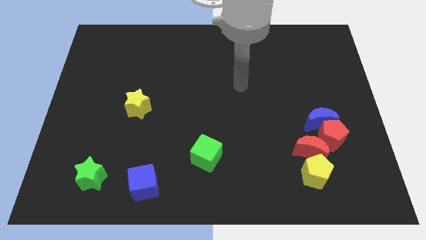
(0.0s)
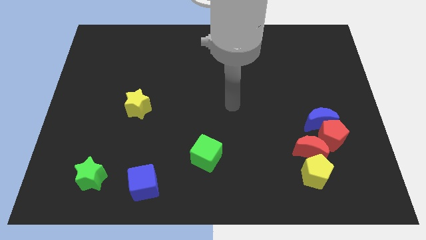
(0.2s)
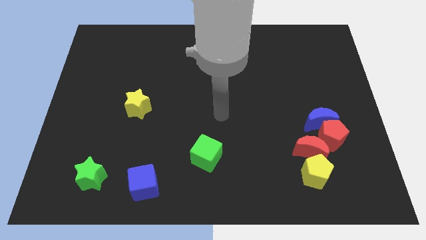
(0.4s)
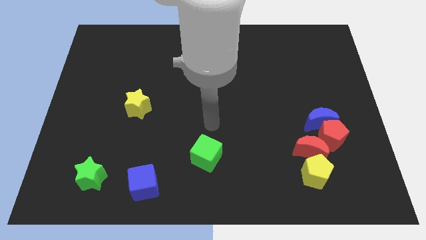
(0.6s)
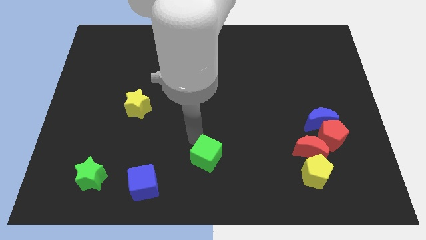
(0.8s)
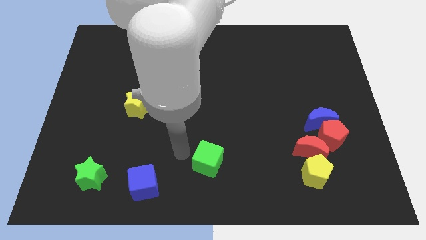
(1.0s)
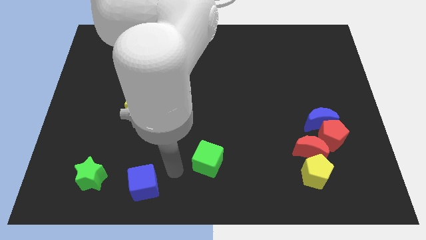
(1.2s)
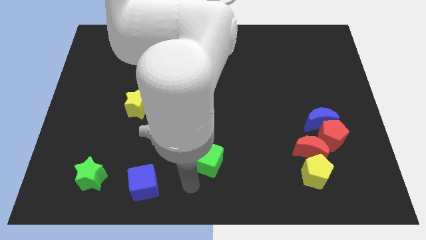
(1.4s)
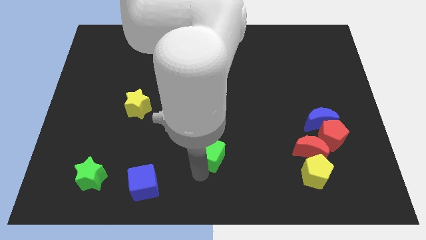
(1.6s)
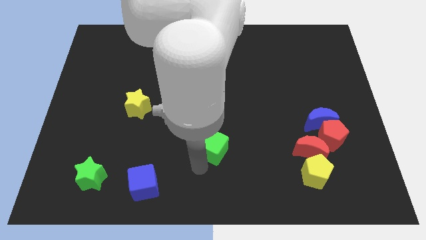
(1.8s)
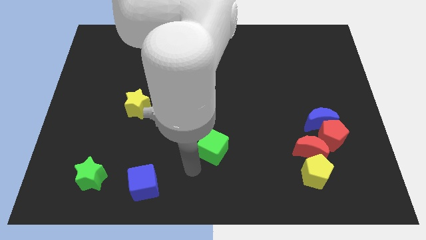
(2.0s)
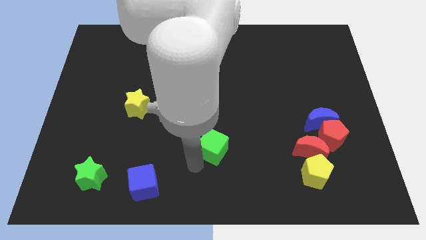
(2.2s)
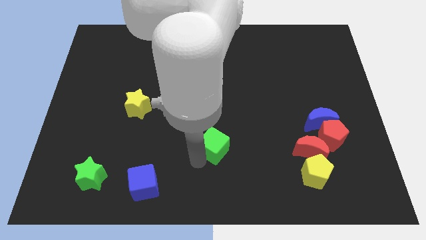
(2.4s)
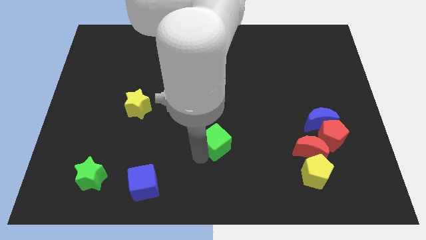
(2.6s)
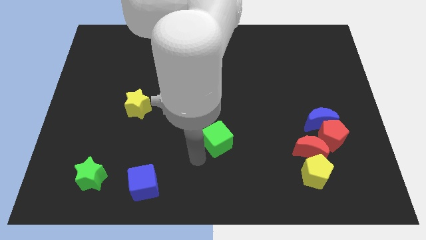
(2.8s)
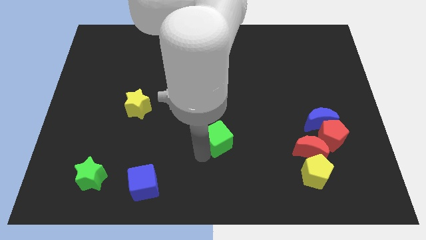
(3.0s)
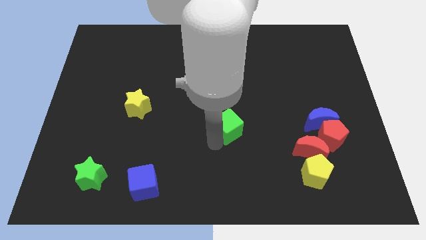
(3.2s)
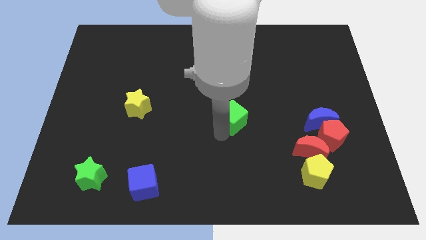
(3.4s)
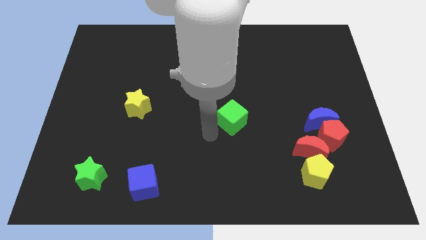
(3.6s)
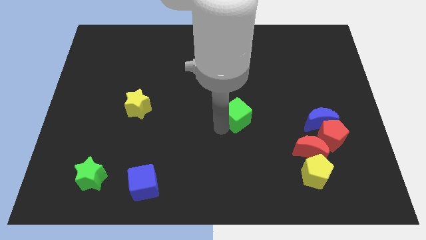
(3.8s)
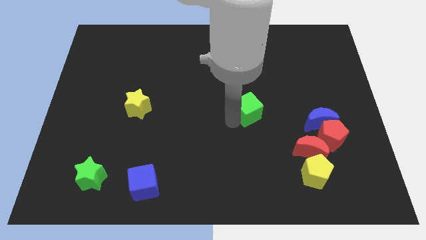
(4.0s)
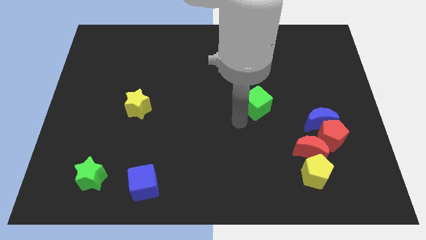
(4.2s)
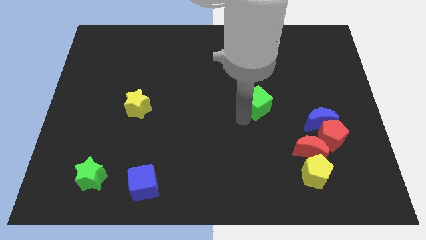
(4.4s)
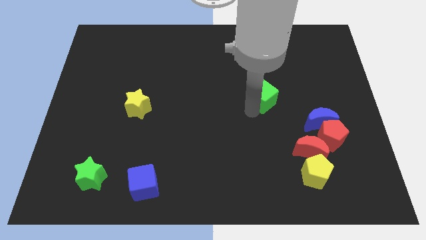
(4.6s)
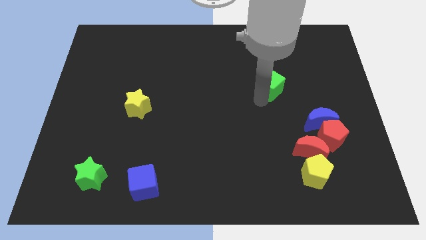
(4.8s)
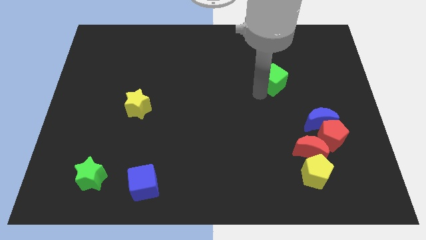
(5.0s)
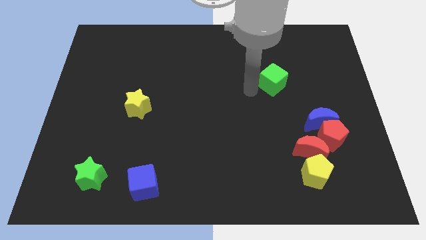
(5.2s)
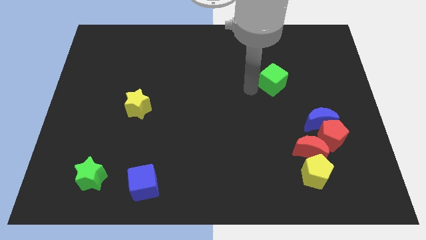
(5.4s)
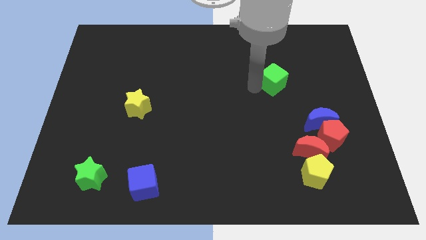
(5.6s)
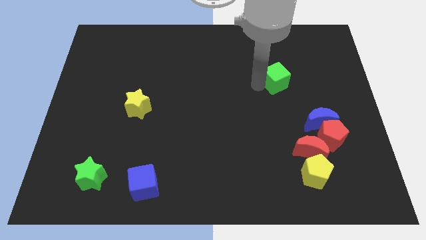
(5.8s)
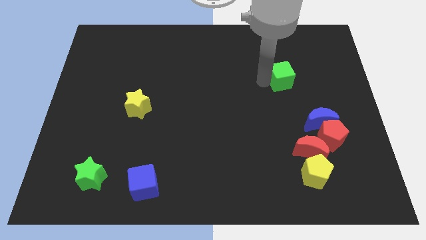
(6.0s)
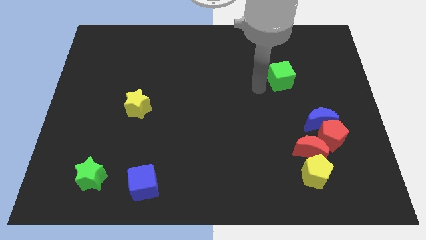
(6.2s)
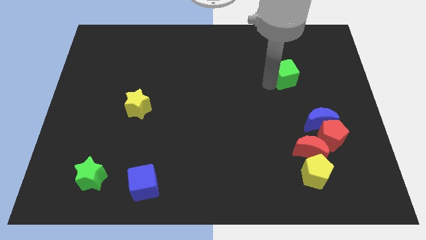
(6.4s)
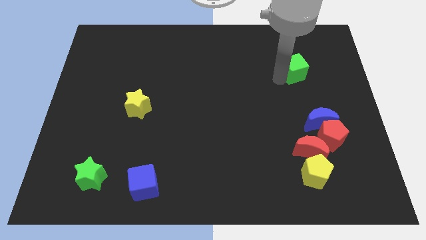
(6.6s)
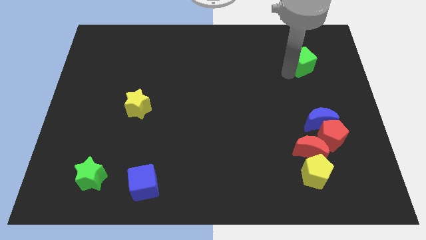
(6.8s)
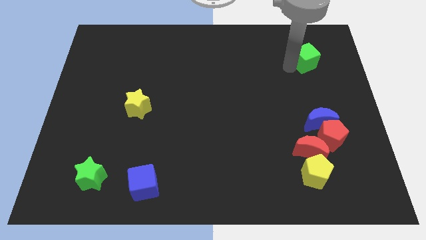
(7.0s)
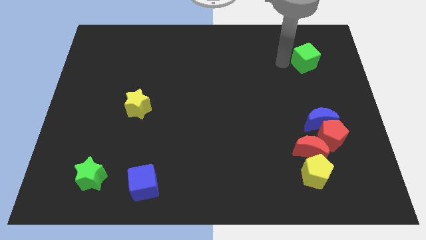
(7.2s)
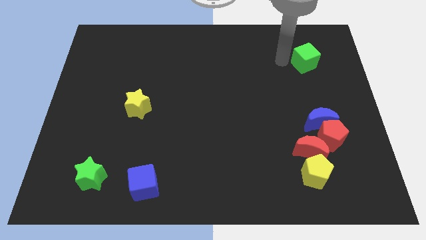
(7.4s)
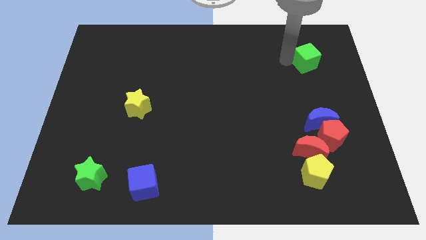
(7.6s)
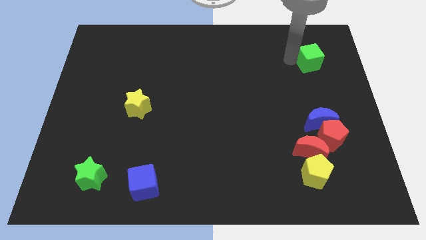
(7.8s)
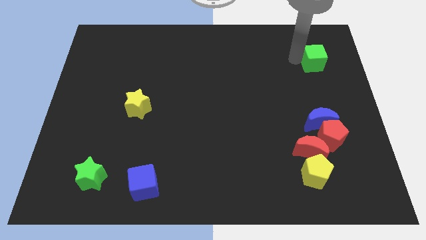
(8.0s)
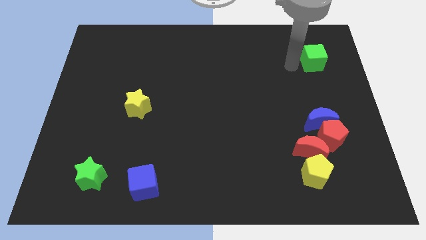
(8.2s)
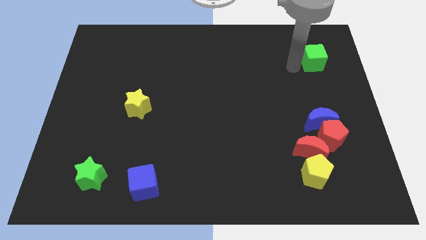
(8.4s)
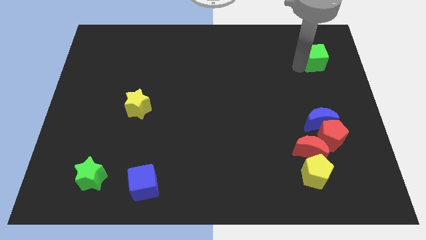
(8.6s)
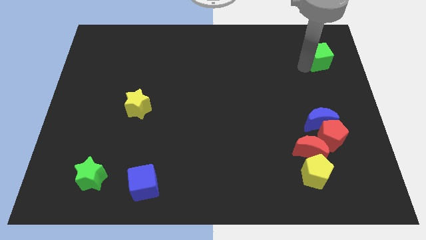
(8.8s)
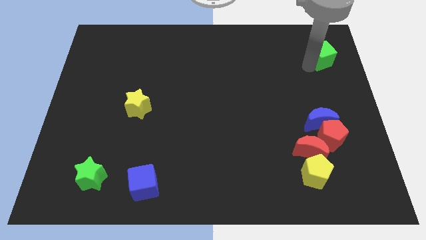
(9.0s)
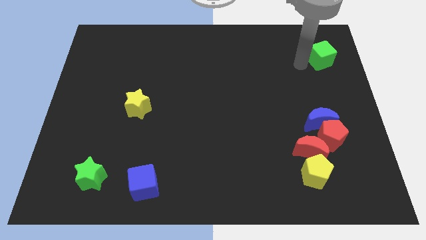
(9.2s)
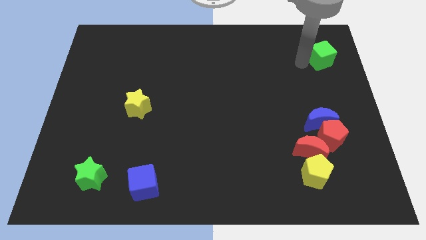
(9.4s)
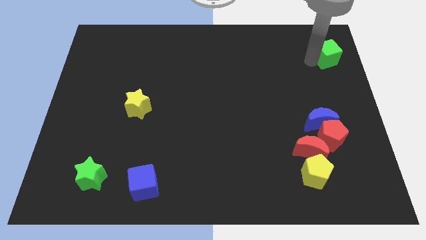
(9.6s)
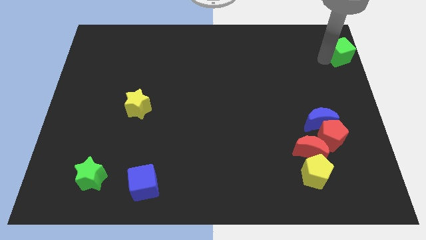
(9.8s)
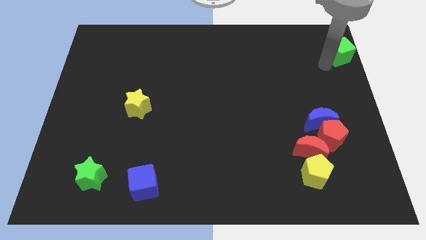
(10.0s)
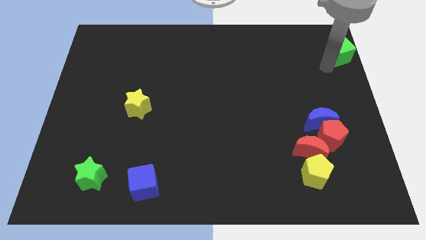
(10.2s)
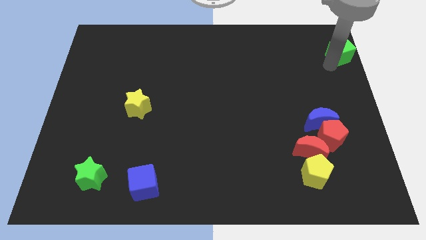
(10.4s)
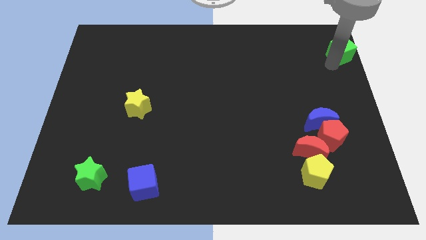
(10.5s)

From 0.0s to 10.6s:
move the green cube to the top right of the board

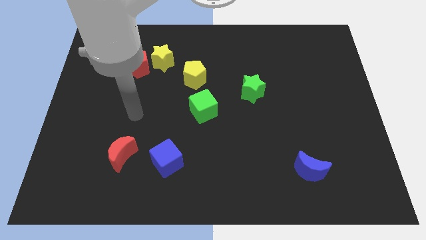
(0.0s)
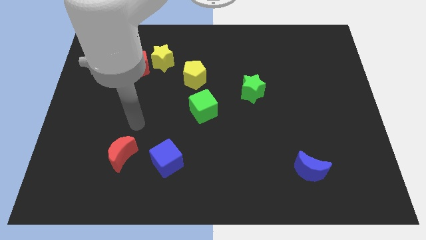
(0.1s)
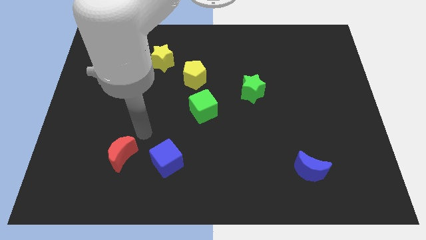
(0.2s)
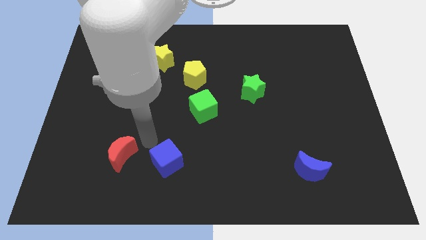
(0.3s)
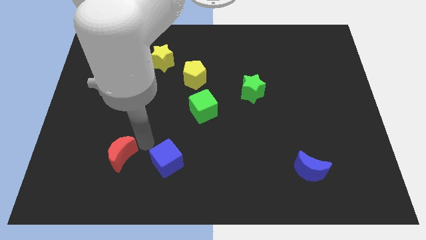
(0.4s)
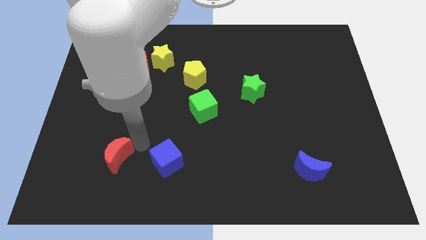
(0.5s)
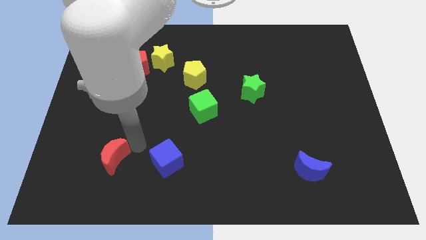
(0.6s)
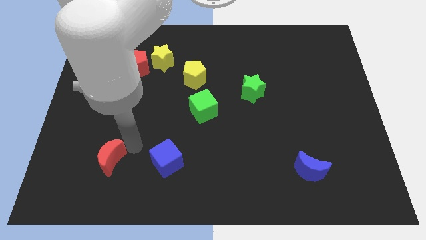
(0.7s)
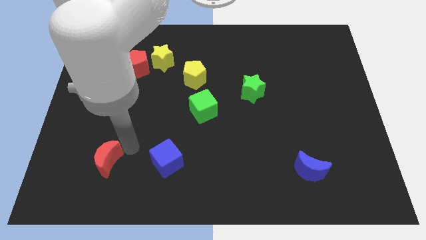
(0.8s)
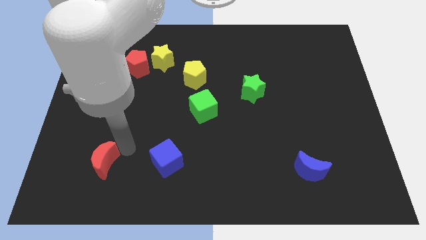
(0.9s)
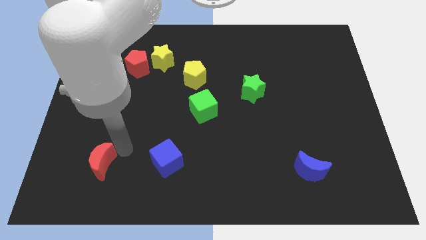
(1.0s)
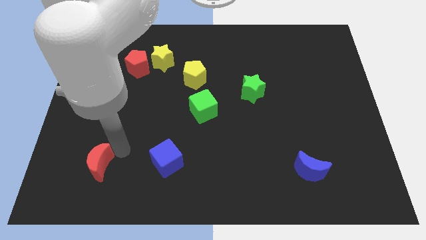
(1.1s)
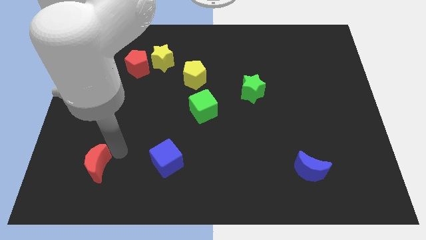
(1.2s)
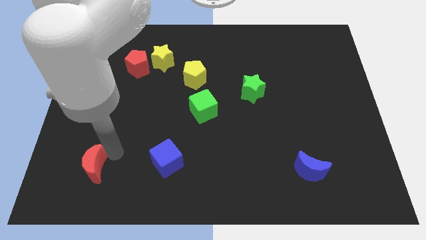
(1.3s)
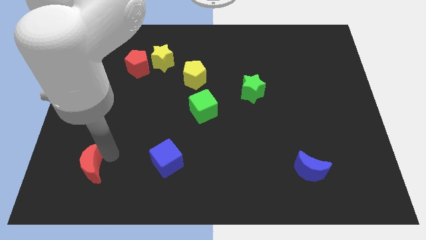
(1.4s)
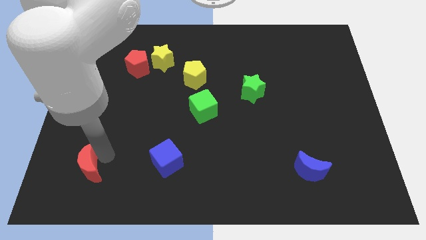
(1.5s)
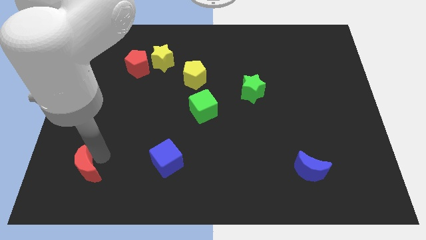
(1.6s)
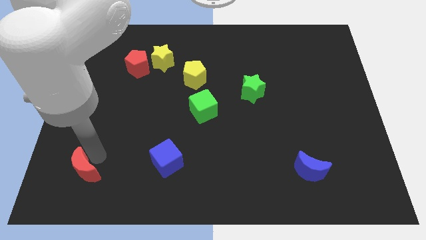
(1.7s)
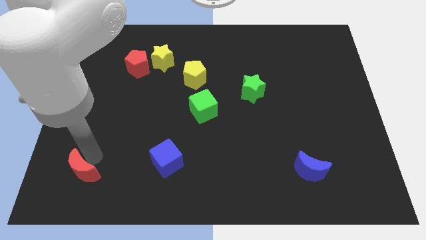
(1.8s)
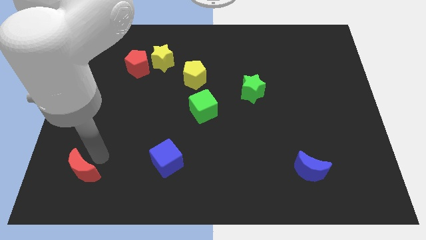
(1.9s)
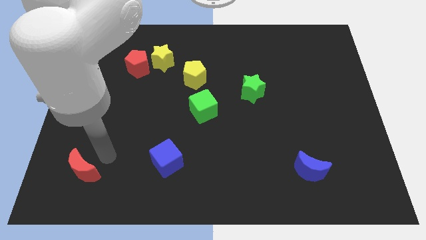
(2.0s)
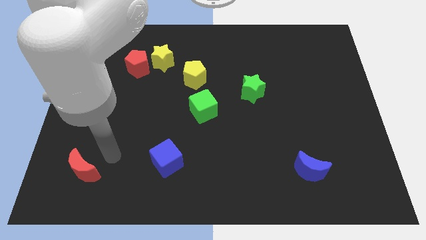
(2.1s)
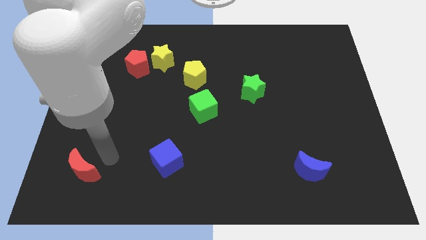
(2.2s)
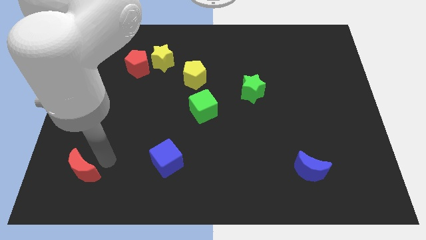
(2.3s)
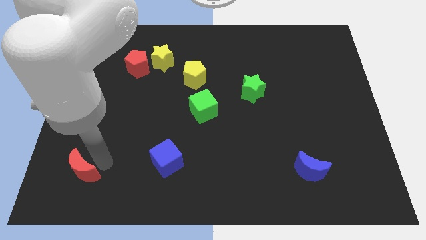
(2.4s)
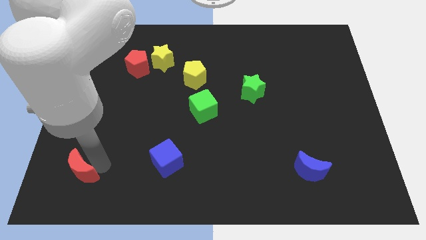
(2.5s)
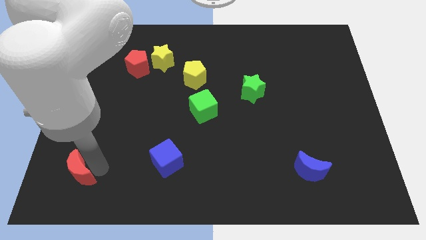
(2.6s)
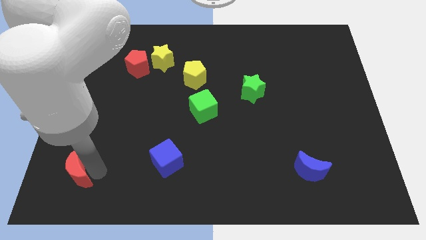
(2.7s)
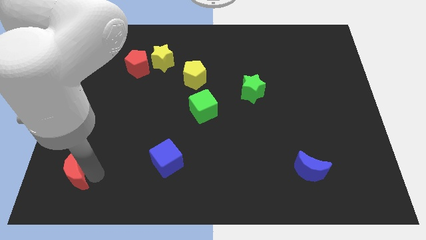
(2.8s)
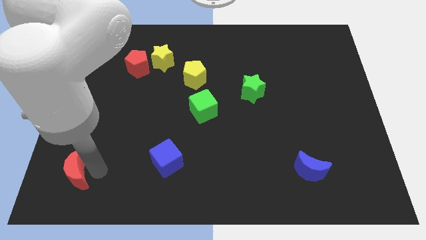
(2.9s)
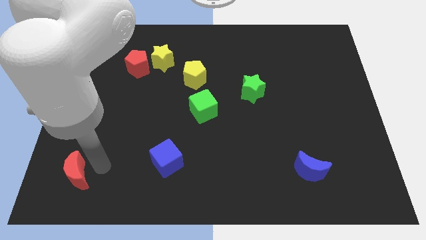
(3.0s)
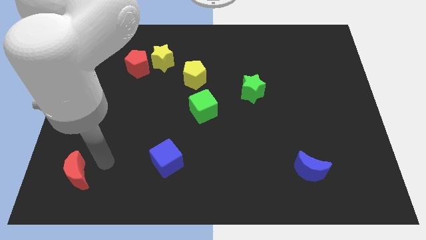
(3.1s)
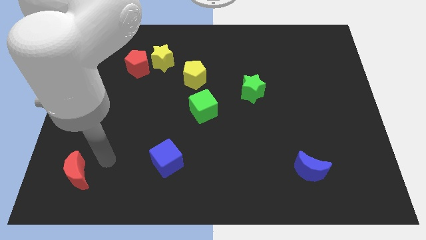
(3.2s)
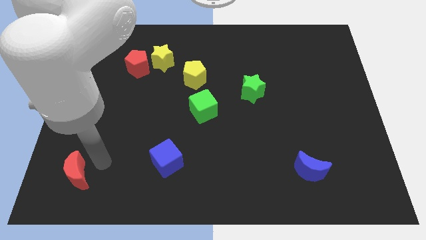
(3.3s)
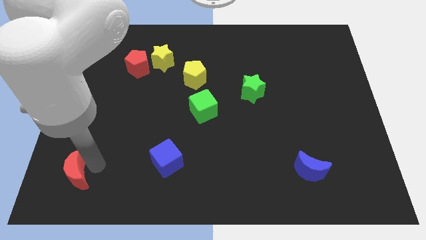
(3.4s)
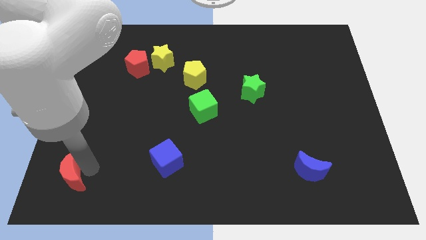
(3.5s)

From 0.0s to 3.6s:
push the red moon to the bottom left of the board
